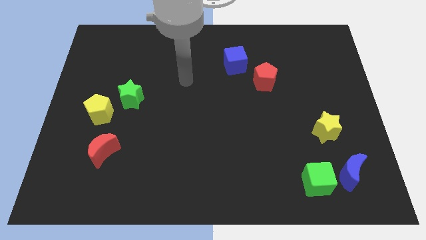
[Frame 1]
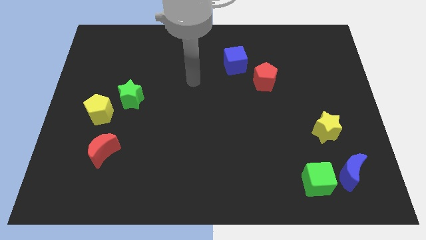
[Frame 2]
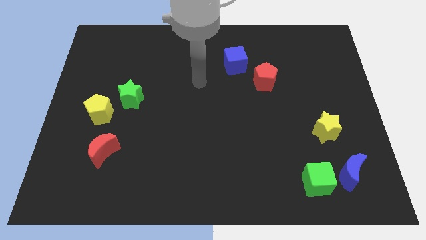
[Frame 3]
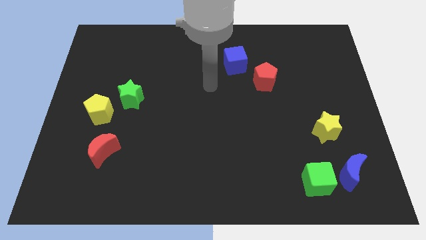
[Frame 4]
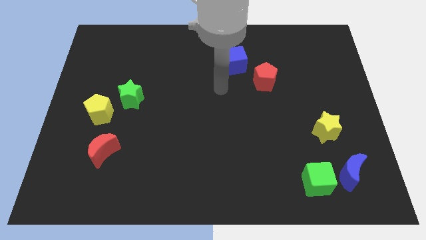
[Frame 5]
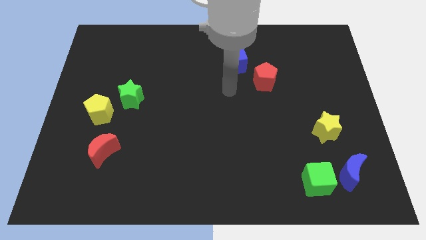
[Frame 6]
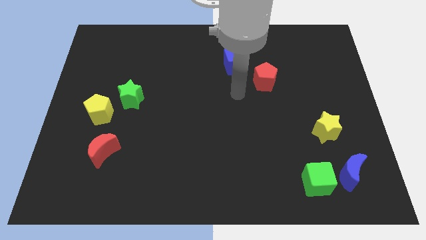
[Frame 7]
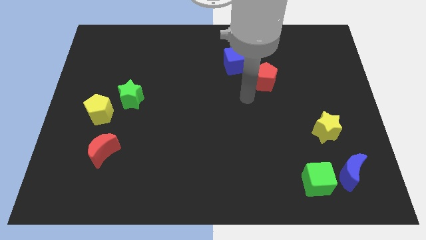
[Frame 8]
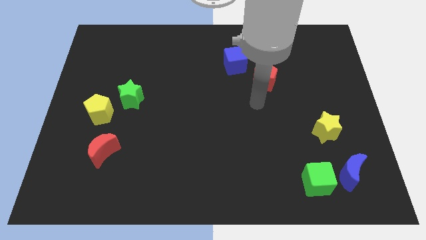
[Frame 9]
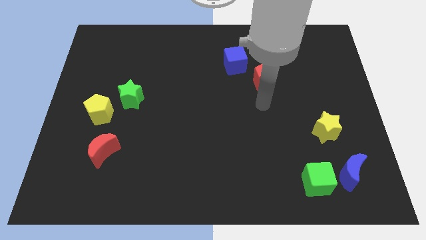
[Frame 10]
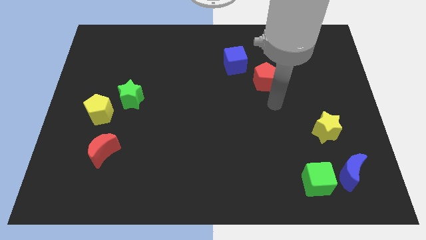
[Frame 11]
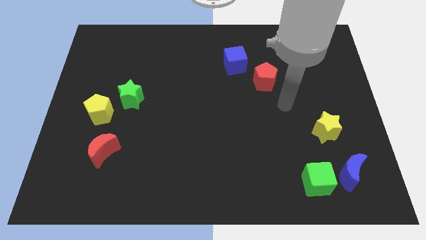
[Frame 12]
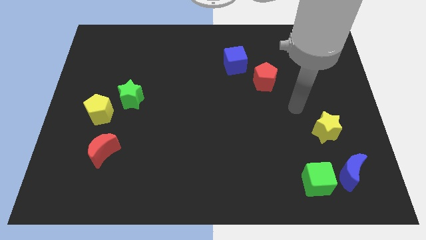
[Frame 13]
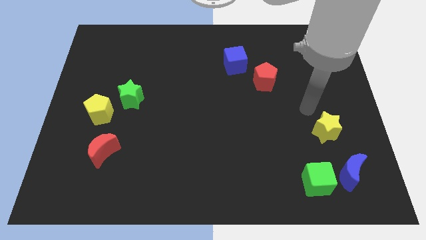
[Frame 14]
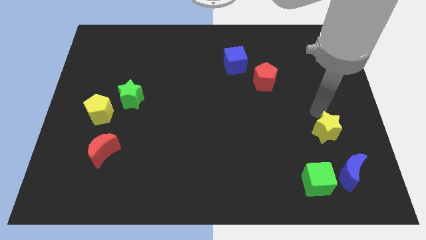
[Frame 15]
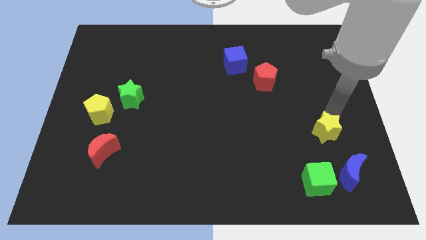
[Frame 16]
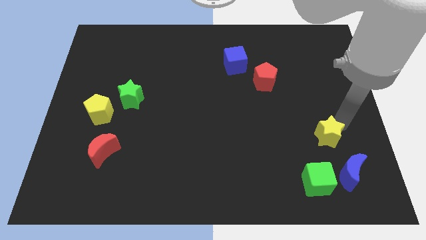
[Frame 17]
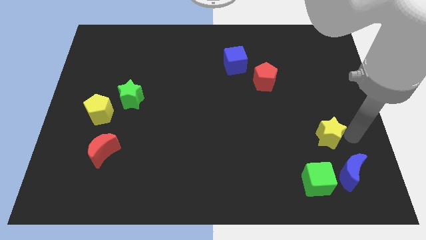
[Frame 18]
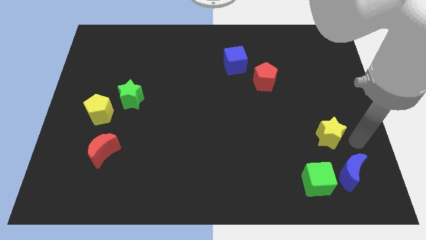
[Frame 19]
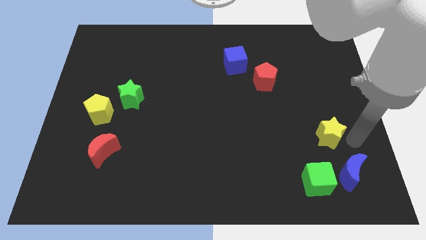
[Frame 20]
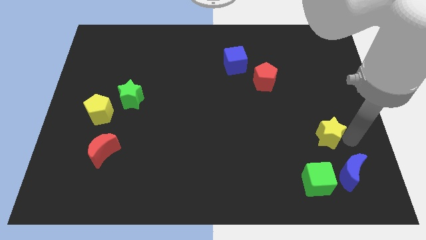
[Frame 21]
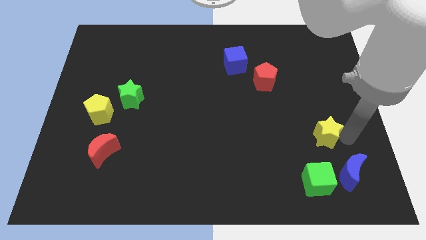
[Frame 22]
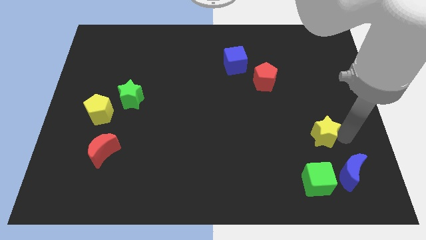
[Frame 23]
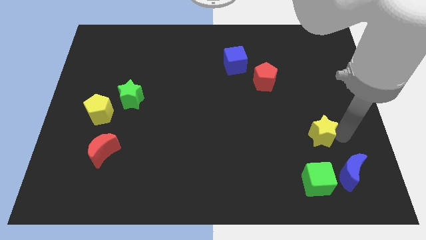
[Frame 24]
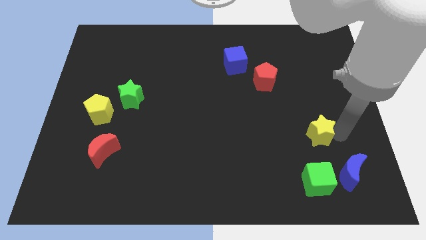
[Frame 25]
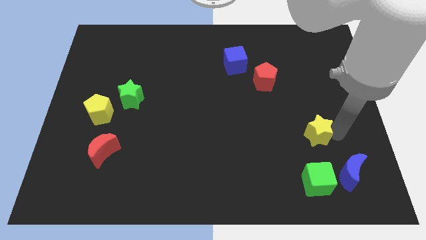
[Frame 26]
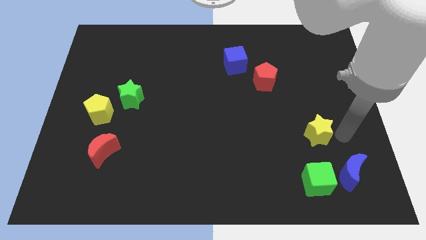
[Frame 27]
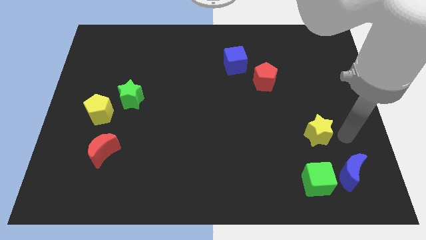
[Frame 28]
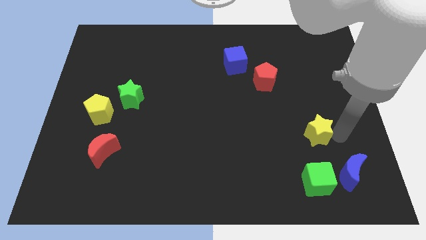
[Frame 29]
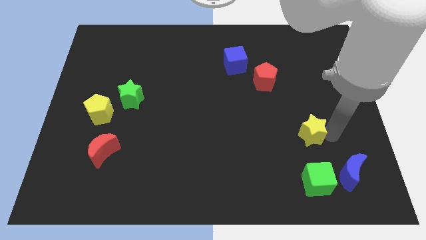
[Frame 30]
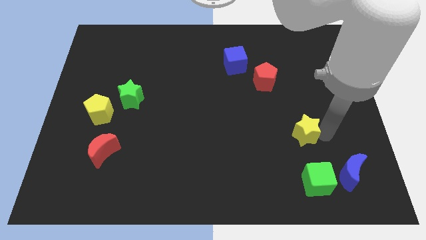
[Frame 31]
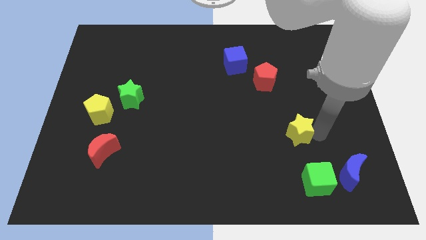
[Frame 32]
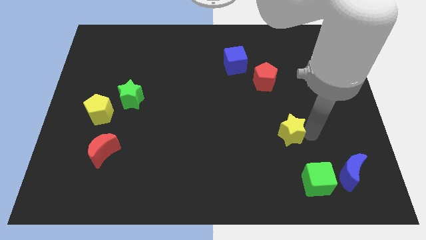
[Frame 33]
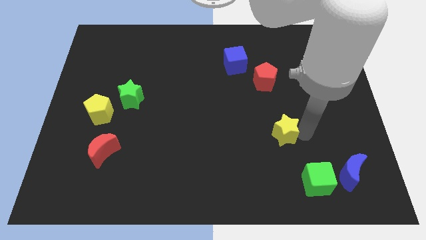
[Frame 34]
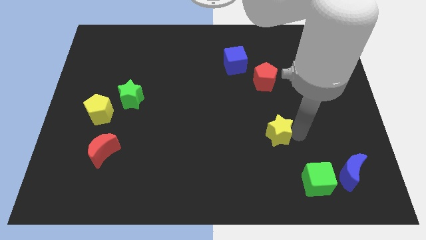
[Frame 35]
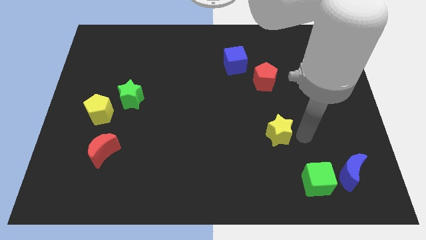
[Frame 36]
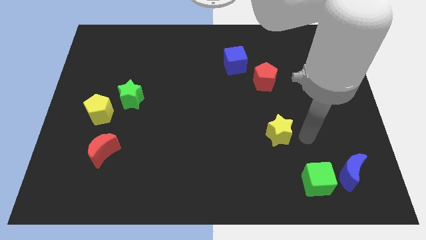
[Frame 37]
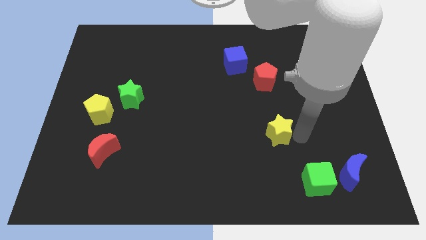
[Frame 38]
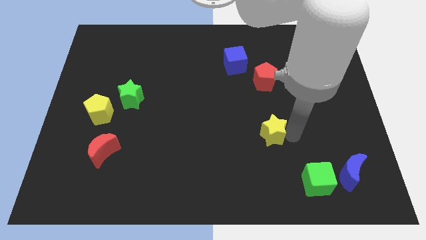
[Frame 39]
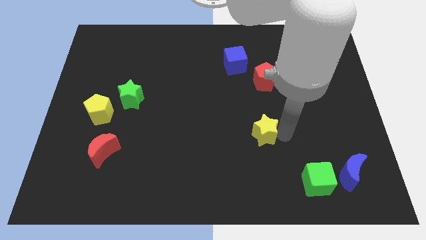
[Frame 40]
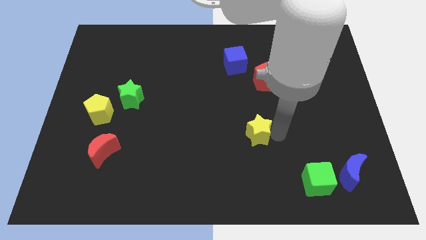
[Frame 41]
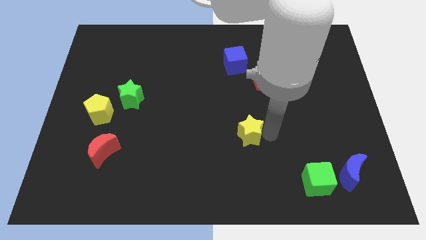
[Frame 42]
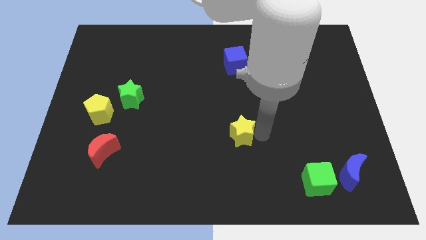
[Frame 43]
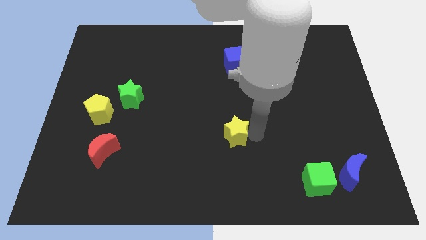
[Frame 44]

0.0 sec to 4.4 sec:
move the yellow star to the left

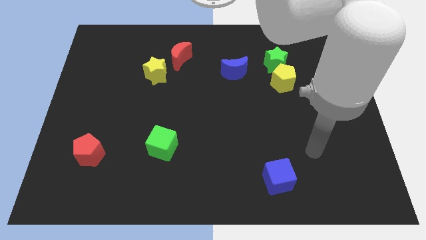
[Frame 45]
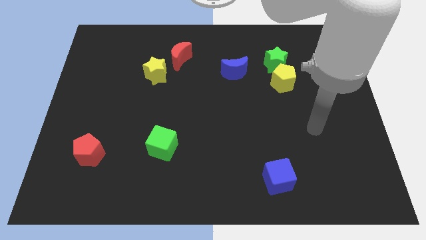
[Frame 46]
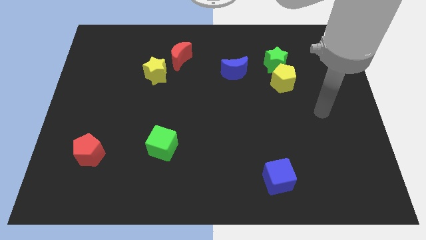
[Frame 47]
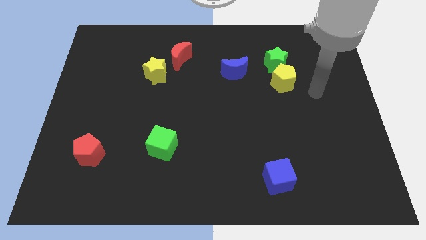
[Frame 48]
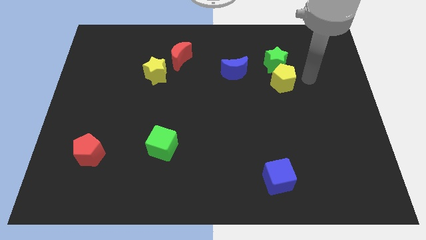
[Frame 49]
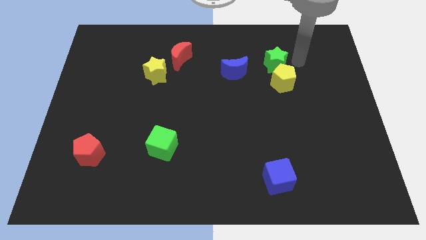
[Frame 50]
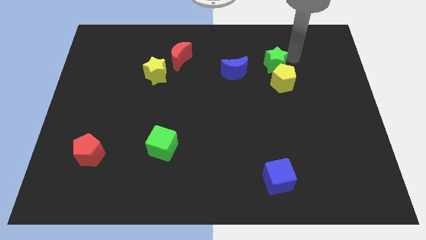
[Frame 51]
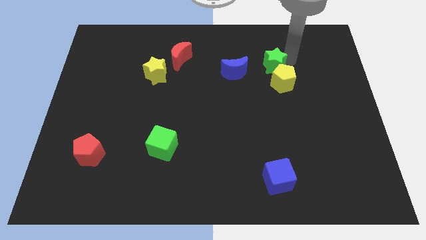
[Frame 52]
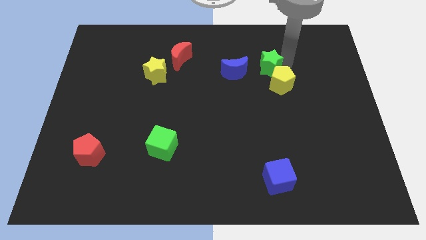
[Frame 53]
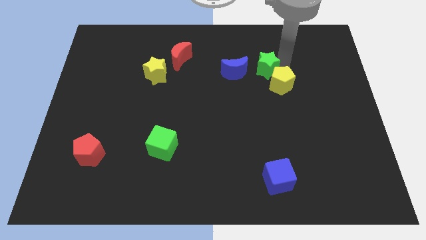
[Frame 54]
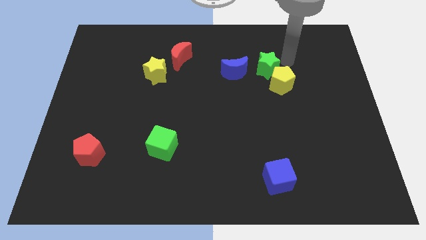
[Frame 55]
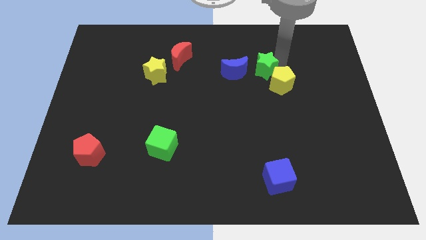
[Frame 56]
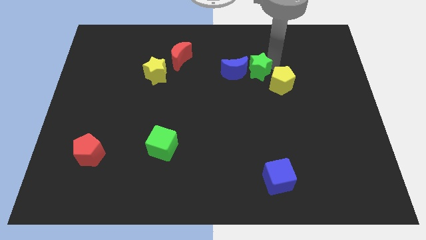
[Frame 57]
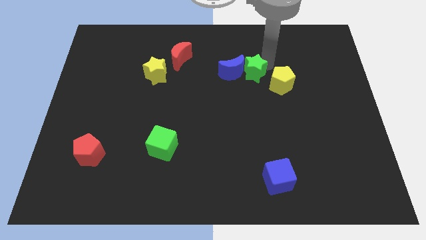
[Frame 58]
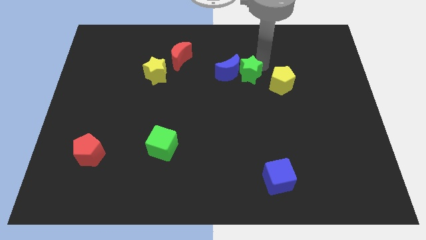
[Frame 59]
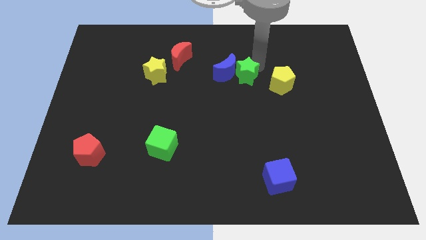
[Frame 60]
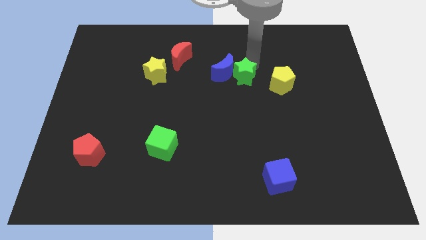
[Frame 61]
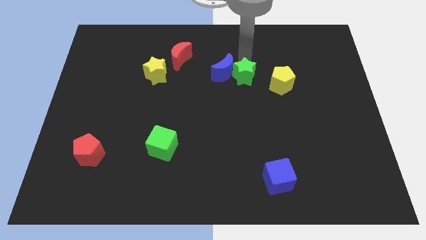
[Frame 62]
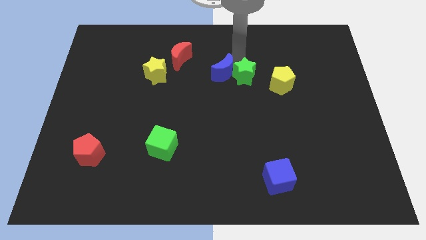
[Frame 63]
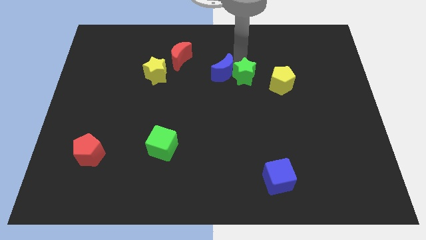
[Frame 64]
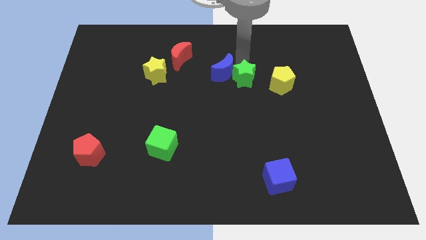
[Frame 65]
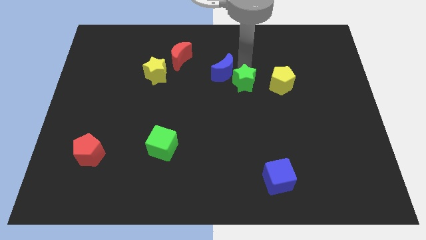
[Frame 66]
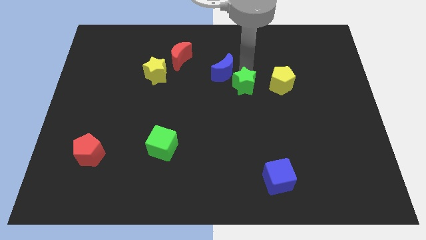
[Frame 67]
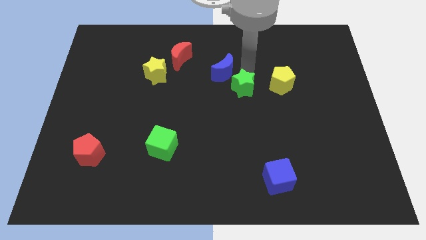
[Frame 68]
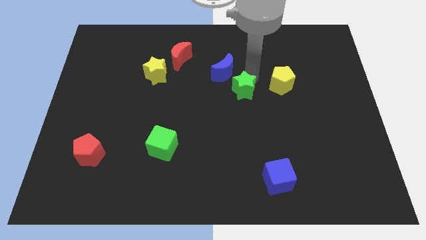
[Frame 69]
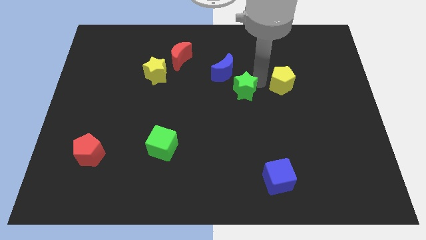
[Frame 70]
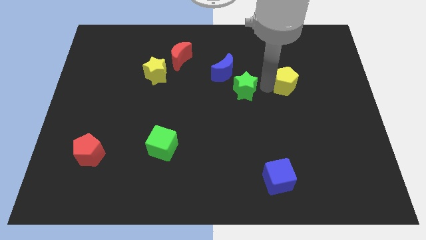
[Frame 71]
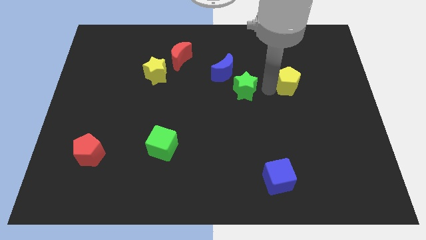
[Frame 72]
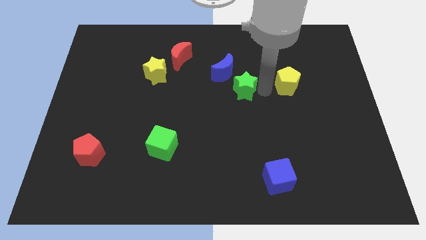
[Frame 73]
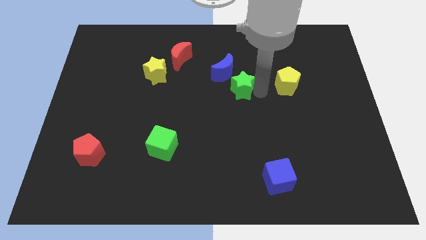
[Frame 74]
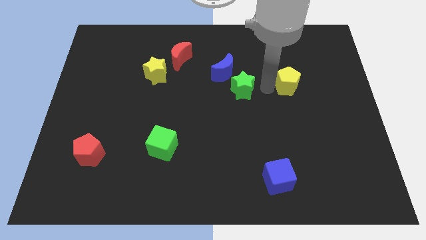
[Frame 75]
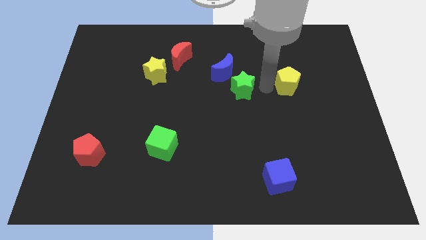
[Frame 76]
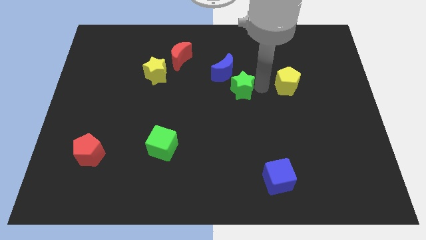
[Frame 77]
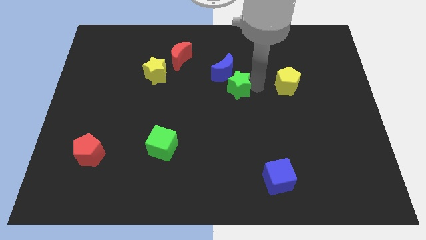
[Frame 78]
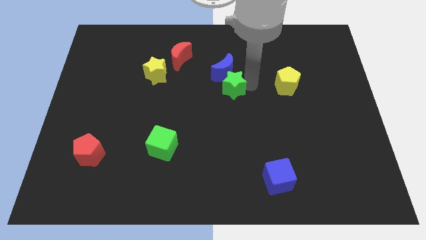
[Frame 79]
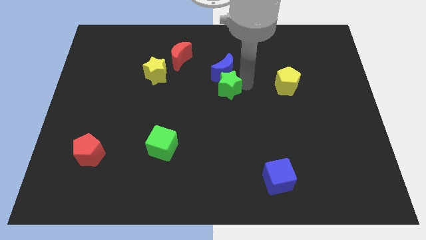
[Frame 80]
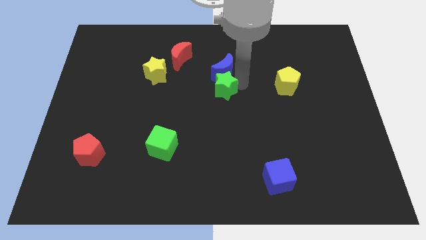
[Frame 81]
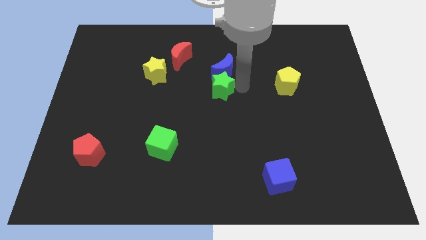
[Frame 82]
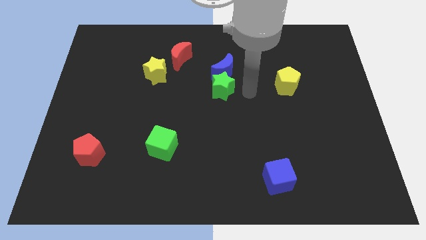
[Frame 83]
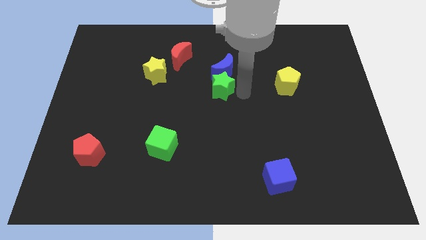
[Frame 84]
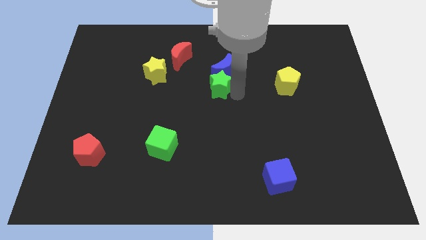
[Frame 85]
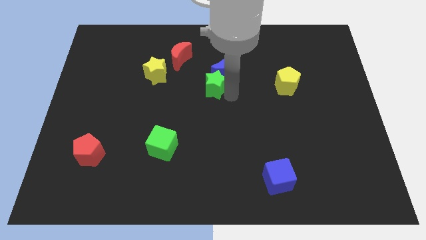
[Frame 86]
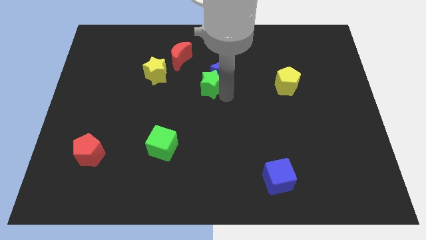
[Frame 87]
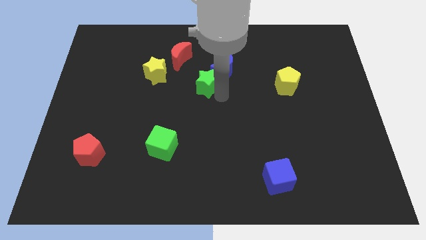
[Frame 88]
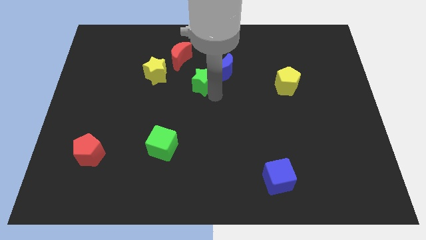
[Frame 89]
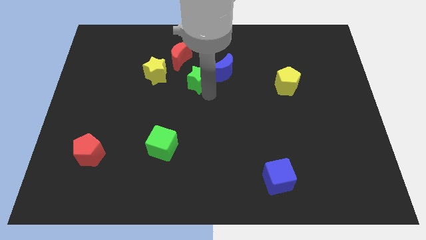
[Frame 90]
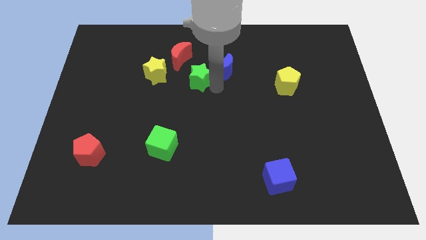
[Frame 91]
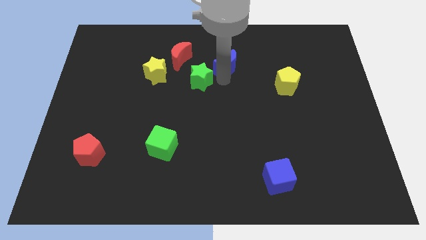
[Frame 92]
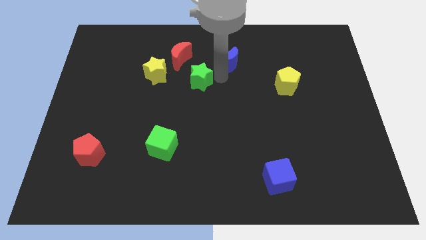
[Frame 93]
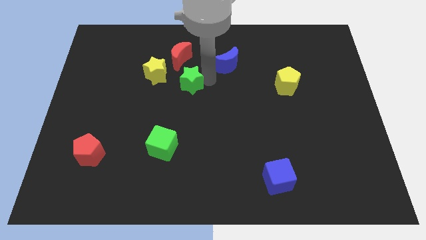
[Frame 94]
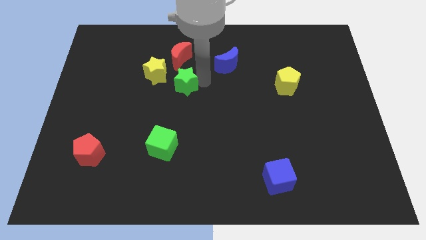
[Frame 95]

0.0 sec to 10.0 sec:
slide the green star to the left
